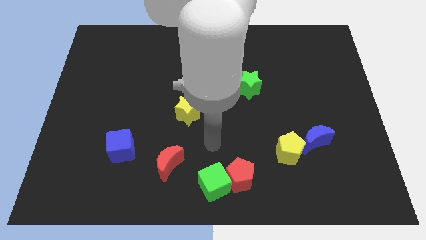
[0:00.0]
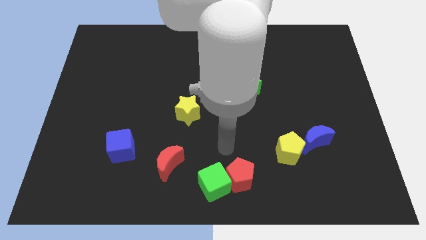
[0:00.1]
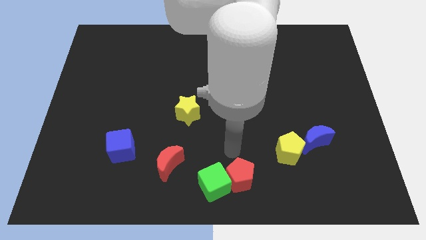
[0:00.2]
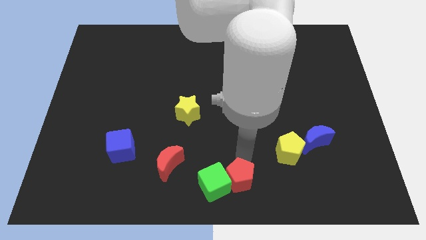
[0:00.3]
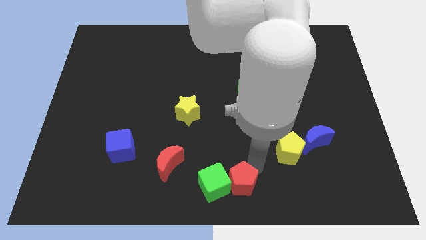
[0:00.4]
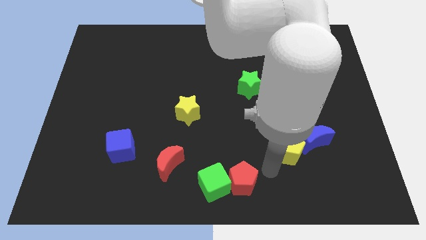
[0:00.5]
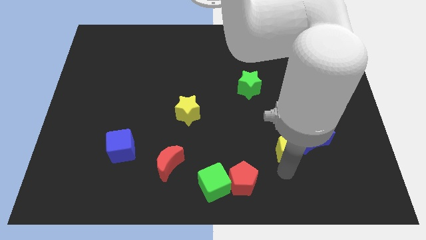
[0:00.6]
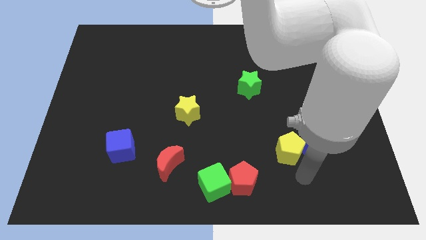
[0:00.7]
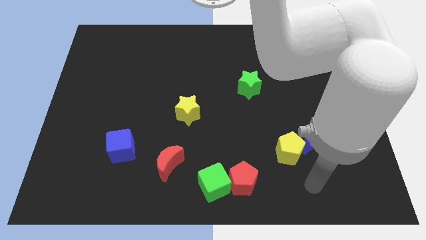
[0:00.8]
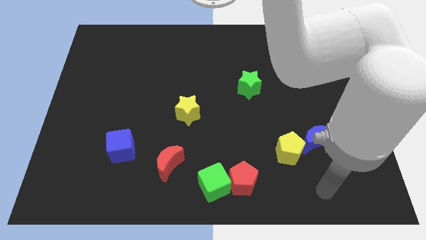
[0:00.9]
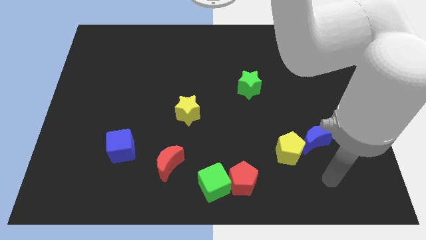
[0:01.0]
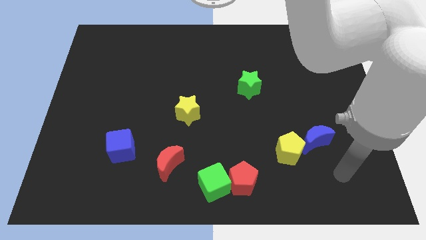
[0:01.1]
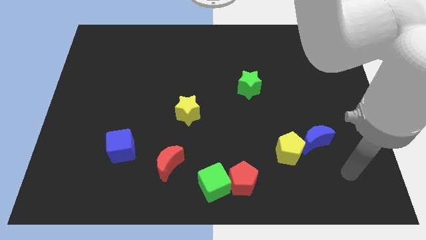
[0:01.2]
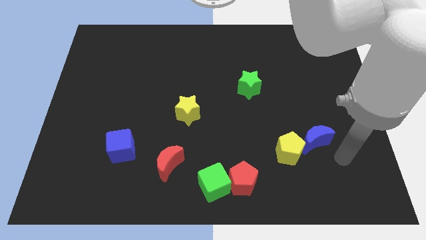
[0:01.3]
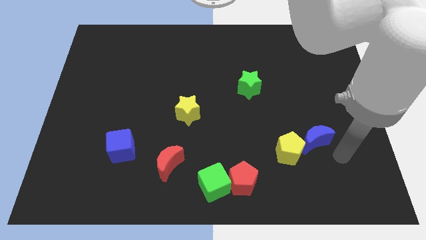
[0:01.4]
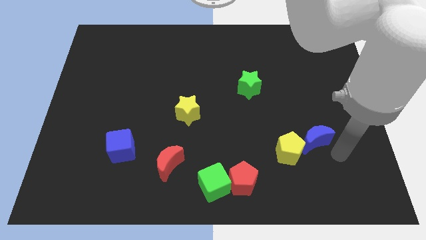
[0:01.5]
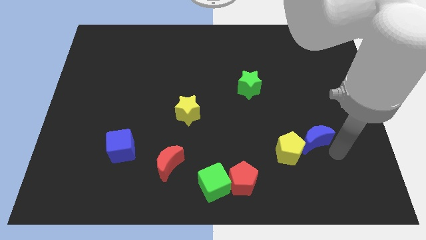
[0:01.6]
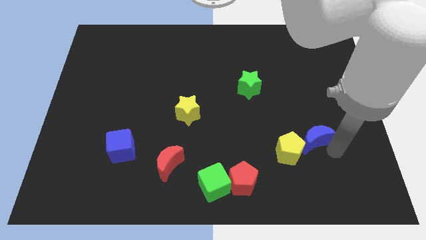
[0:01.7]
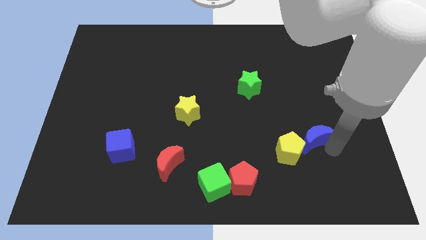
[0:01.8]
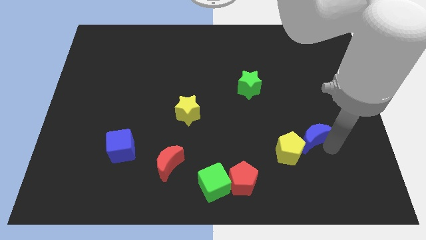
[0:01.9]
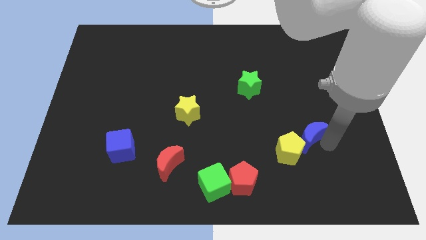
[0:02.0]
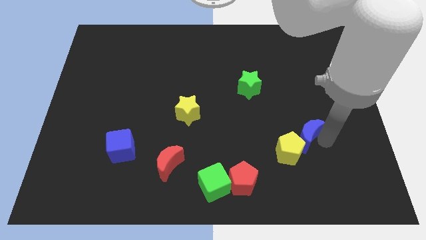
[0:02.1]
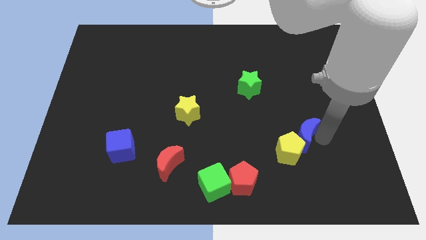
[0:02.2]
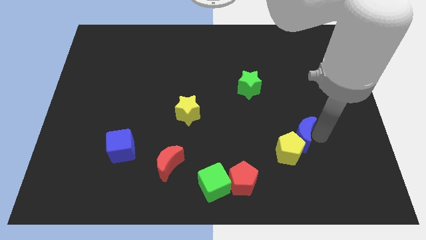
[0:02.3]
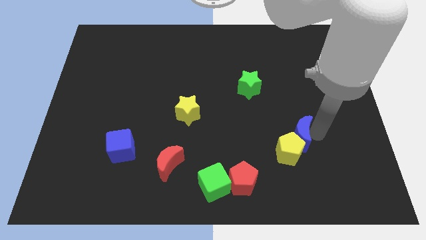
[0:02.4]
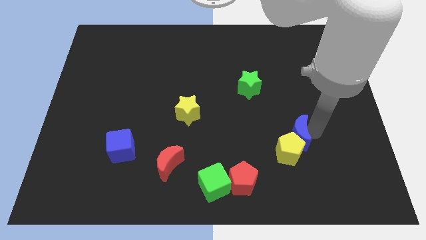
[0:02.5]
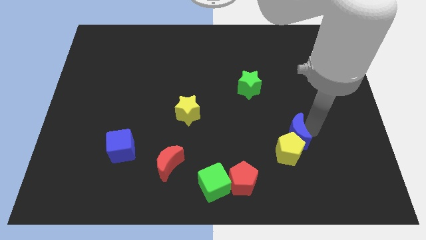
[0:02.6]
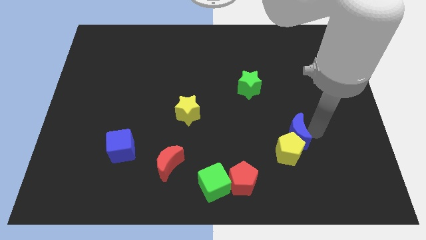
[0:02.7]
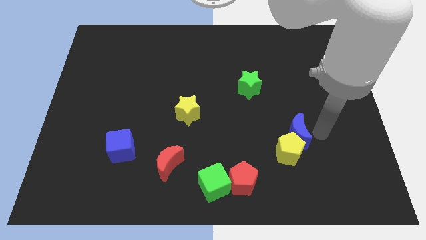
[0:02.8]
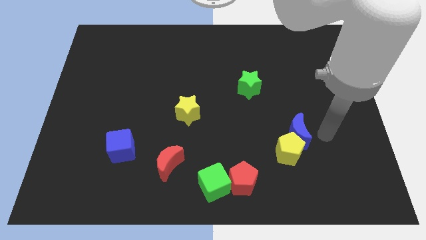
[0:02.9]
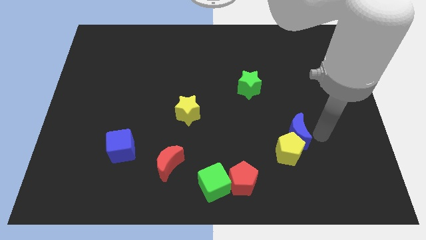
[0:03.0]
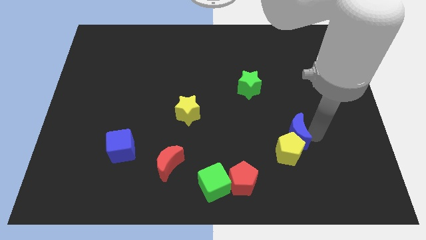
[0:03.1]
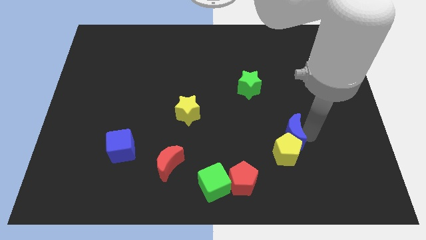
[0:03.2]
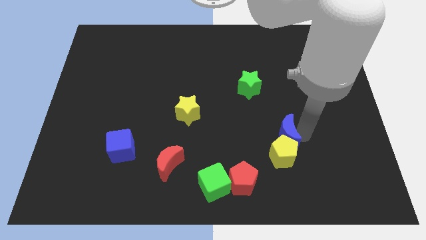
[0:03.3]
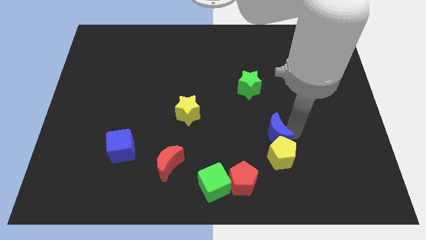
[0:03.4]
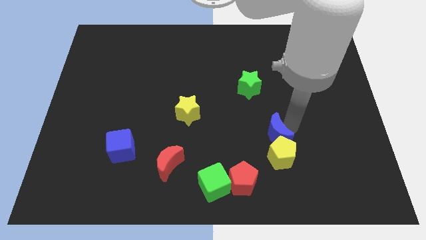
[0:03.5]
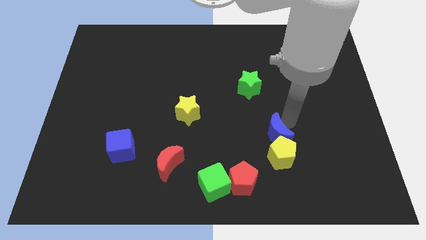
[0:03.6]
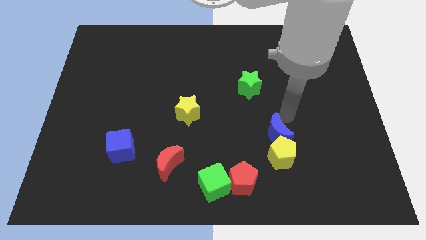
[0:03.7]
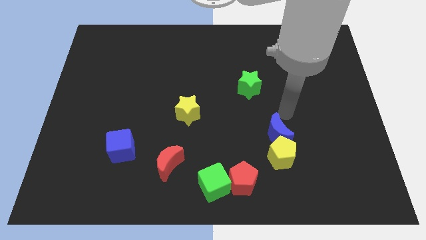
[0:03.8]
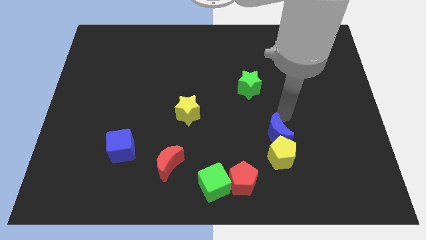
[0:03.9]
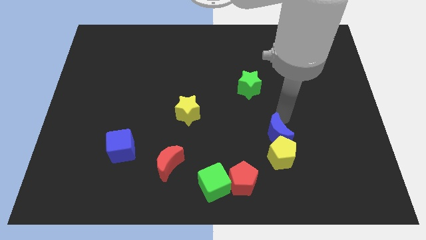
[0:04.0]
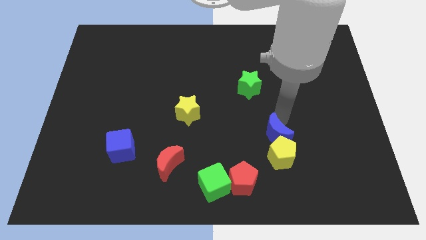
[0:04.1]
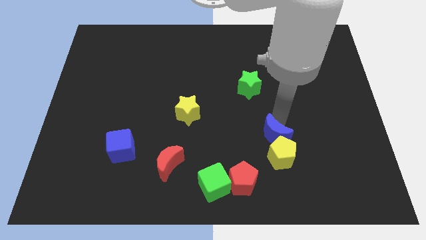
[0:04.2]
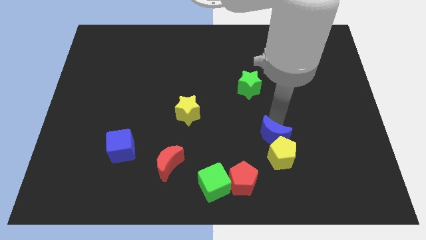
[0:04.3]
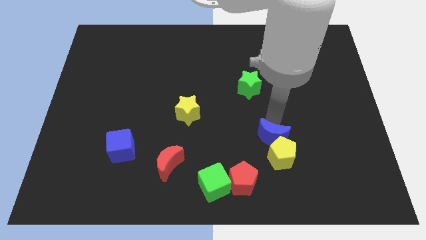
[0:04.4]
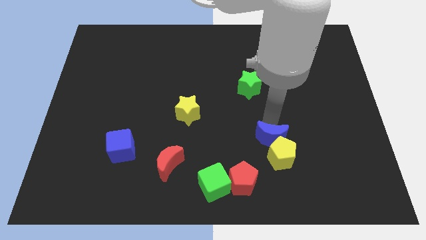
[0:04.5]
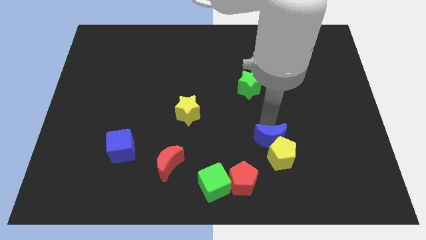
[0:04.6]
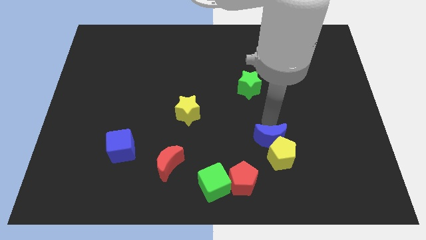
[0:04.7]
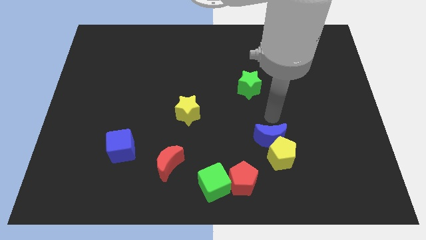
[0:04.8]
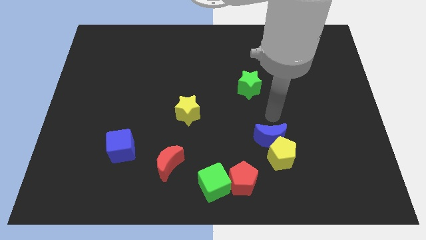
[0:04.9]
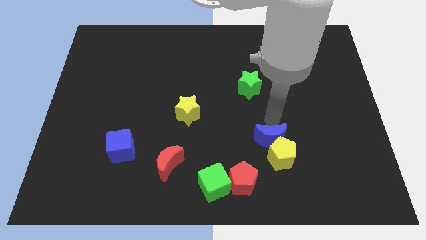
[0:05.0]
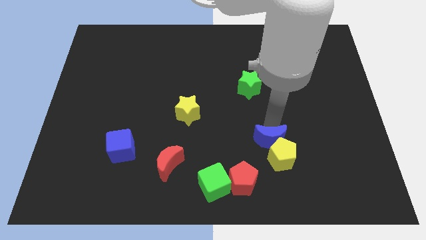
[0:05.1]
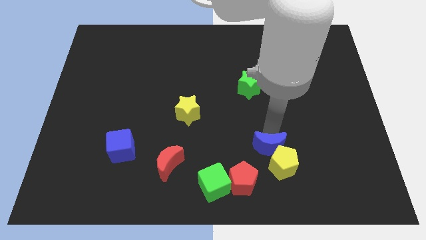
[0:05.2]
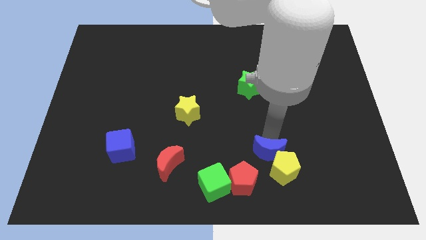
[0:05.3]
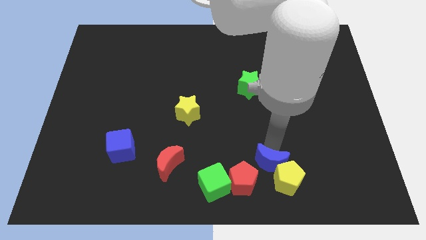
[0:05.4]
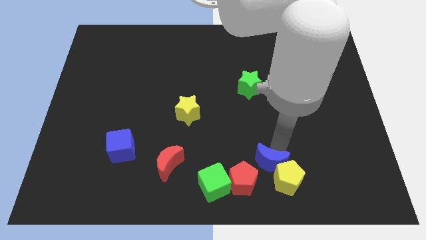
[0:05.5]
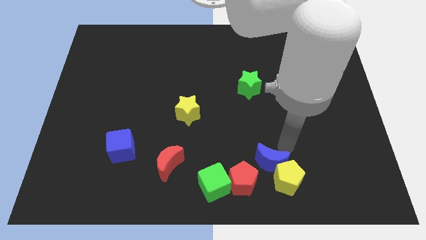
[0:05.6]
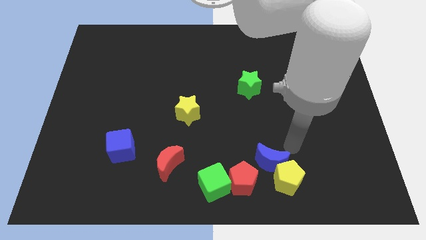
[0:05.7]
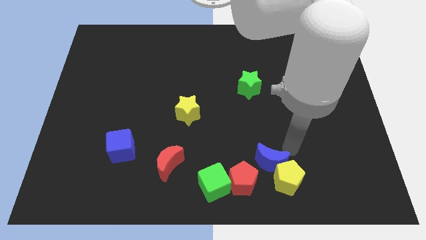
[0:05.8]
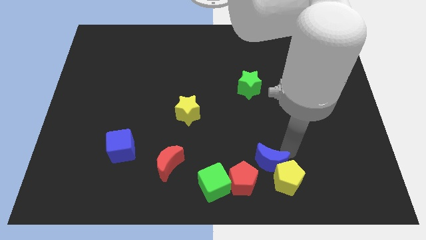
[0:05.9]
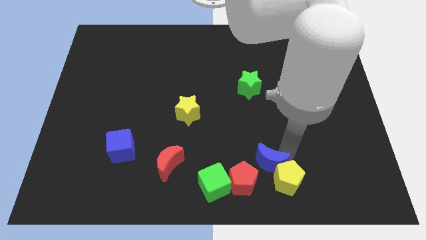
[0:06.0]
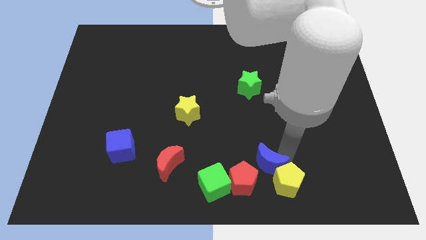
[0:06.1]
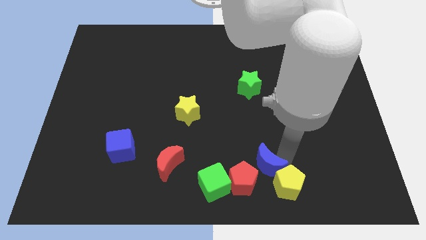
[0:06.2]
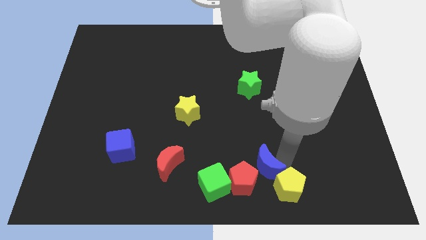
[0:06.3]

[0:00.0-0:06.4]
push the blue moon to the red pentagon
